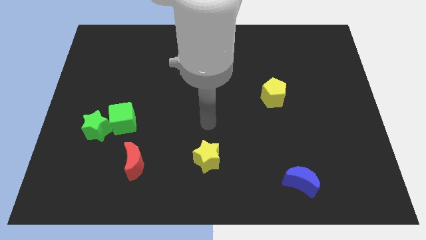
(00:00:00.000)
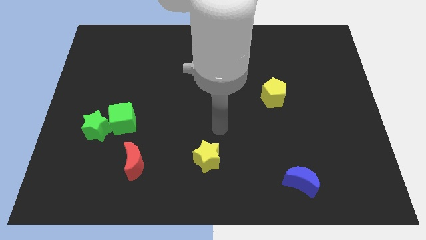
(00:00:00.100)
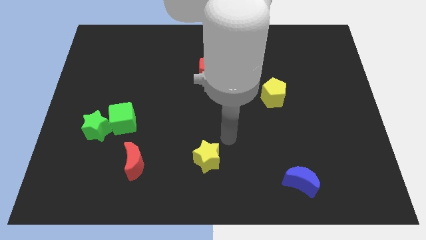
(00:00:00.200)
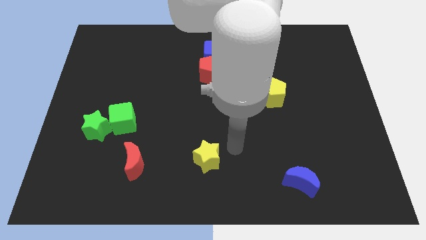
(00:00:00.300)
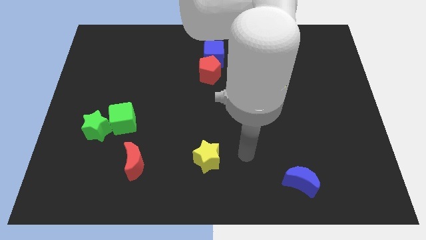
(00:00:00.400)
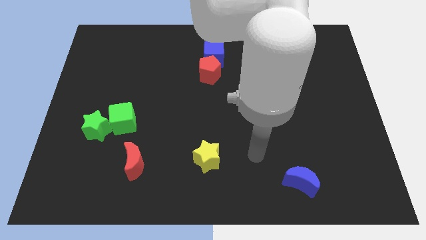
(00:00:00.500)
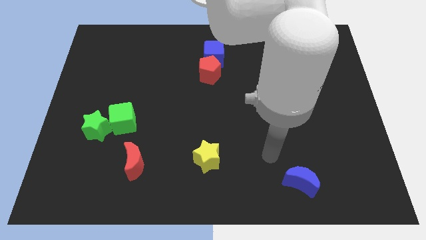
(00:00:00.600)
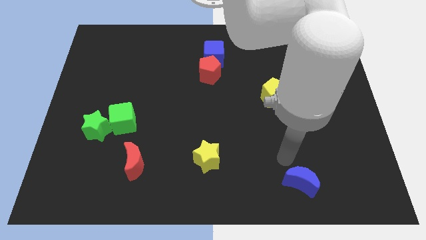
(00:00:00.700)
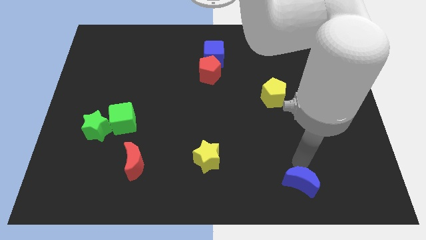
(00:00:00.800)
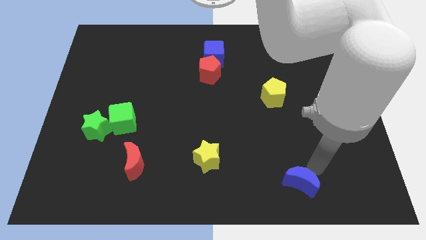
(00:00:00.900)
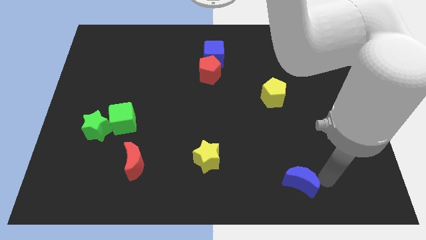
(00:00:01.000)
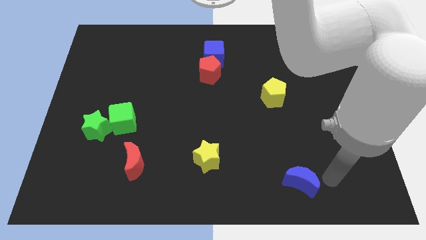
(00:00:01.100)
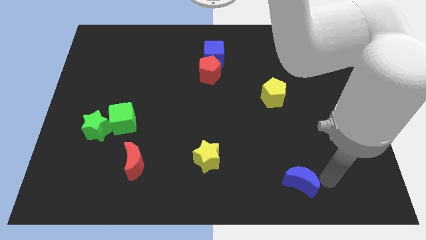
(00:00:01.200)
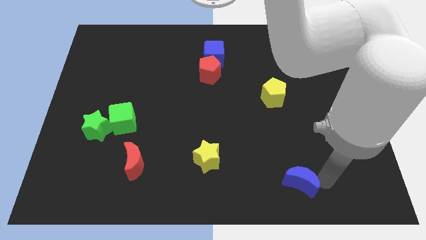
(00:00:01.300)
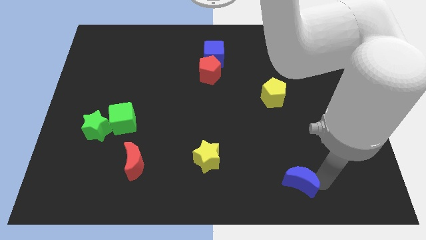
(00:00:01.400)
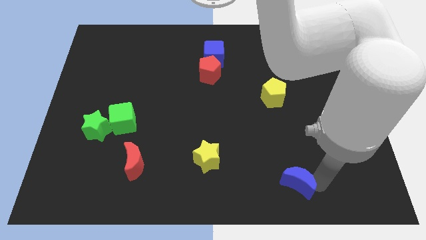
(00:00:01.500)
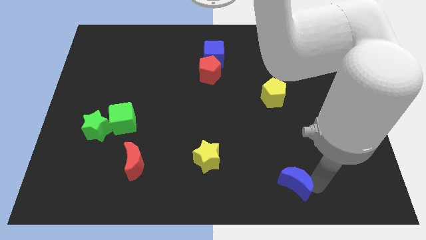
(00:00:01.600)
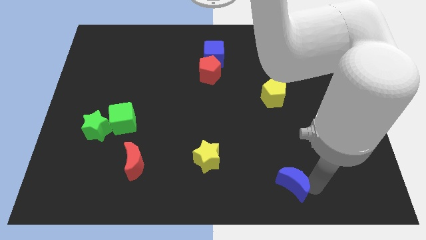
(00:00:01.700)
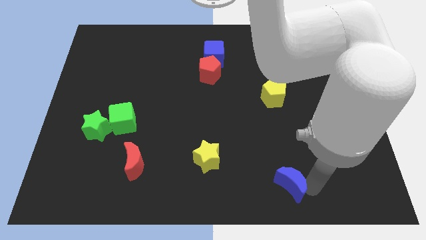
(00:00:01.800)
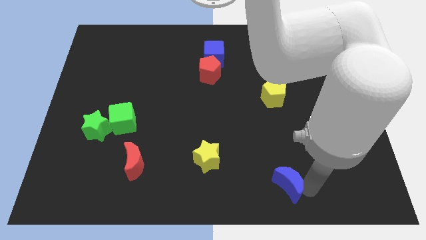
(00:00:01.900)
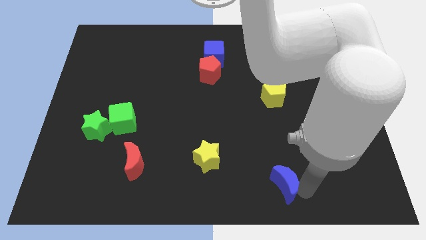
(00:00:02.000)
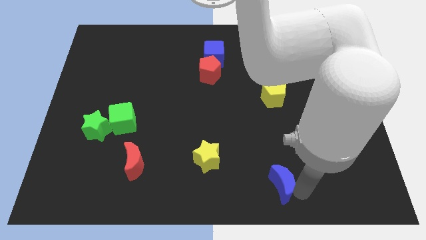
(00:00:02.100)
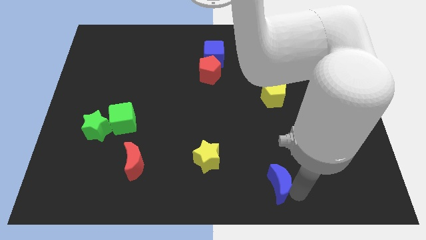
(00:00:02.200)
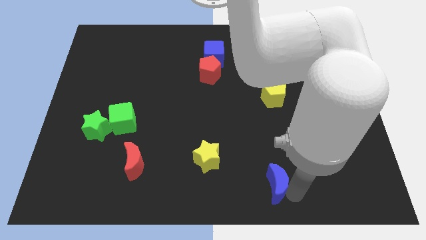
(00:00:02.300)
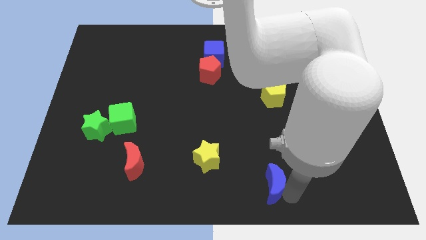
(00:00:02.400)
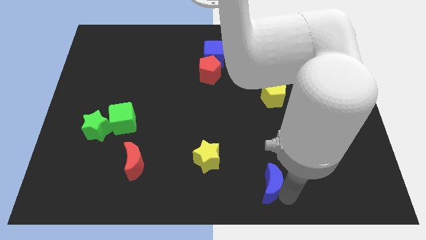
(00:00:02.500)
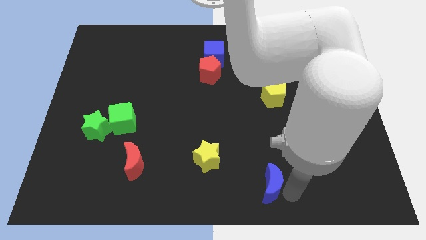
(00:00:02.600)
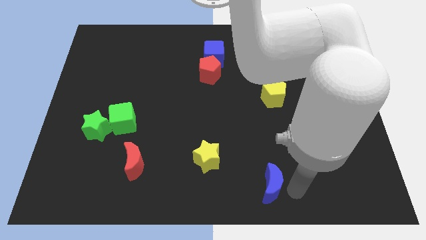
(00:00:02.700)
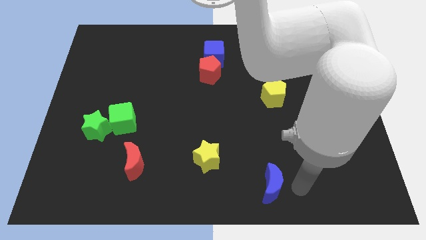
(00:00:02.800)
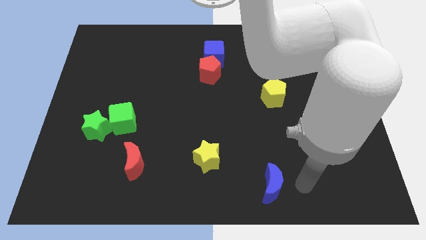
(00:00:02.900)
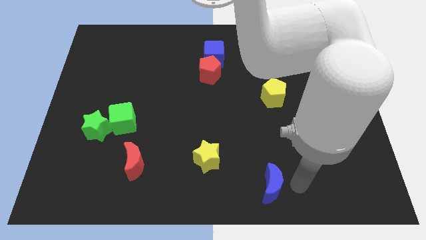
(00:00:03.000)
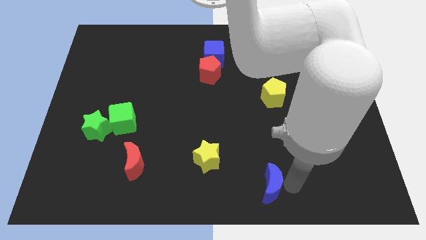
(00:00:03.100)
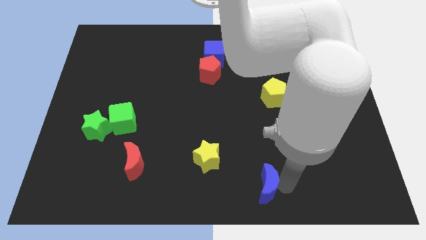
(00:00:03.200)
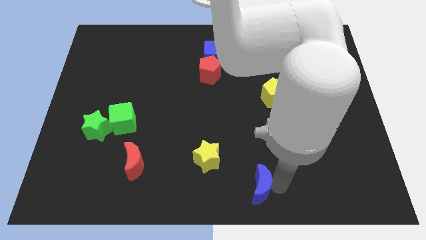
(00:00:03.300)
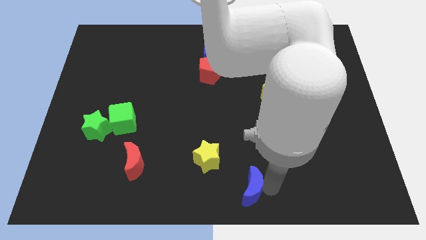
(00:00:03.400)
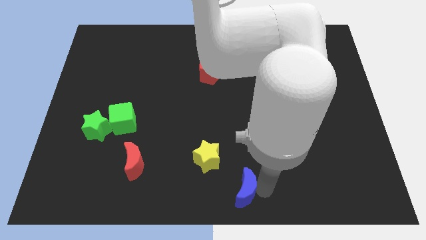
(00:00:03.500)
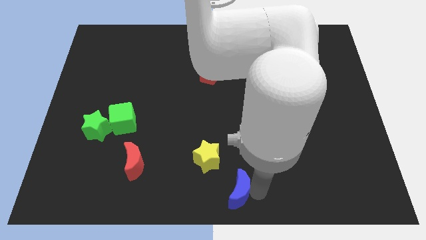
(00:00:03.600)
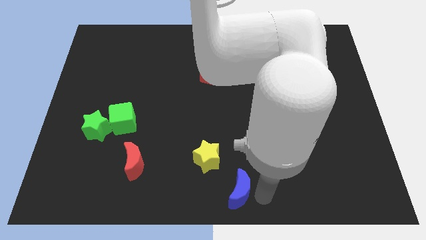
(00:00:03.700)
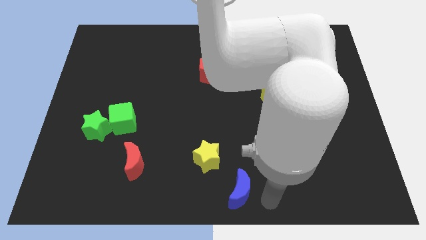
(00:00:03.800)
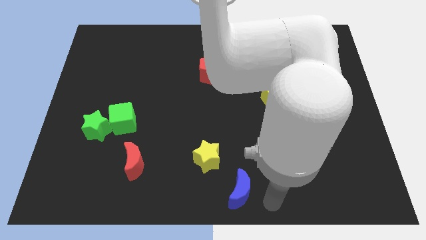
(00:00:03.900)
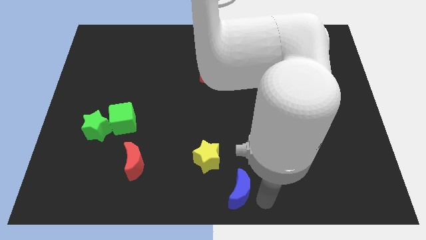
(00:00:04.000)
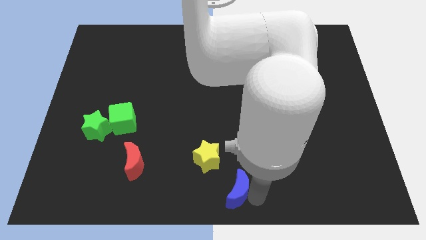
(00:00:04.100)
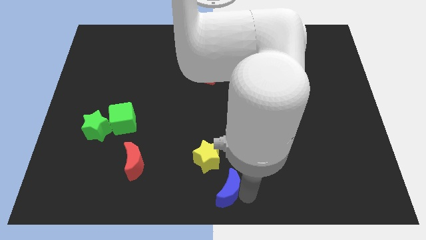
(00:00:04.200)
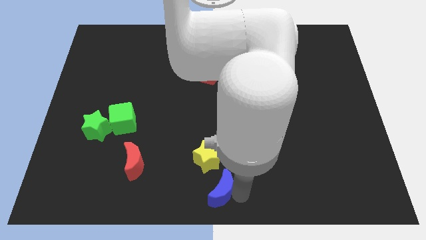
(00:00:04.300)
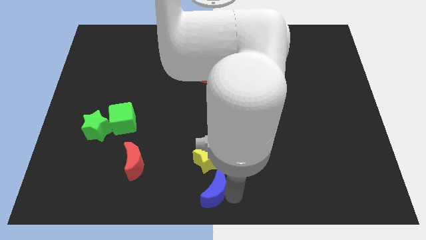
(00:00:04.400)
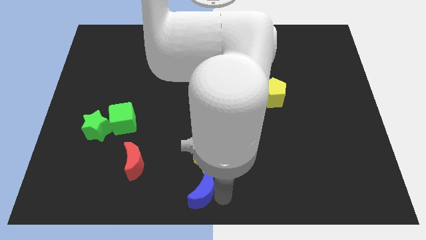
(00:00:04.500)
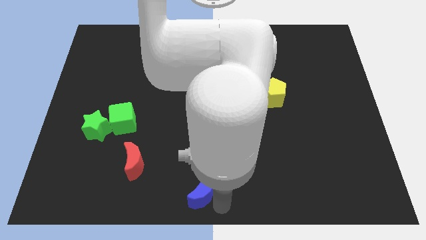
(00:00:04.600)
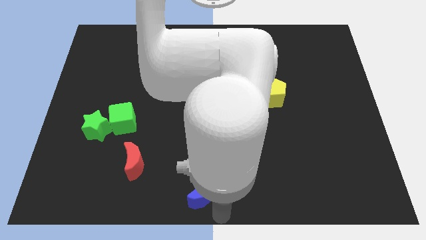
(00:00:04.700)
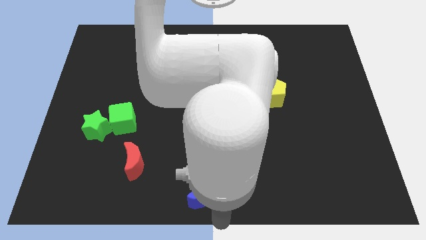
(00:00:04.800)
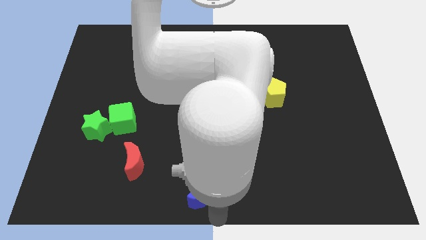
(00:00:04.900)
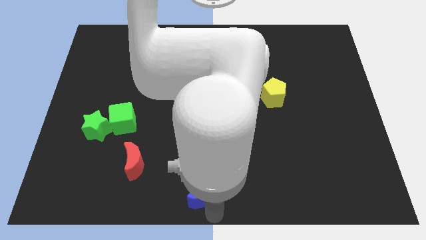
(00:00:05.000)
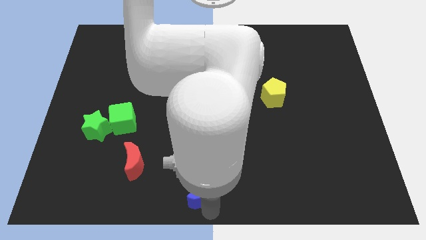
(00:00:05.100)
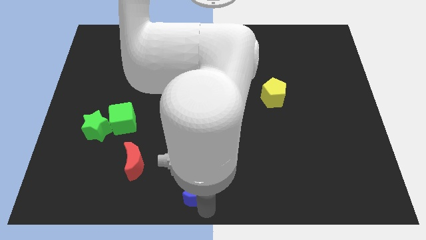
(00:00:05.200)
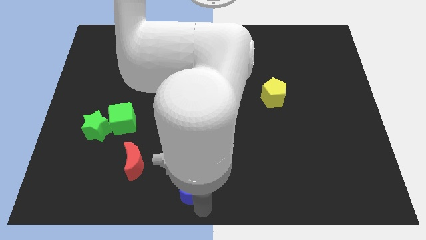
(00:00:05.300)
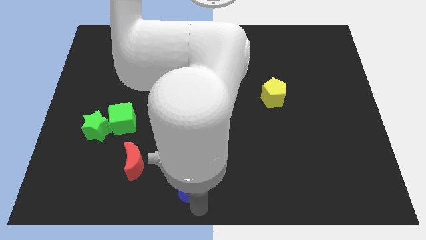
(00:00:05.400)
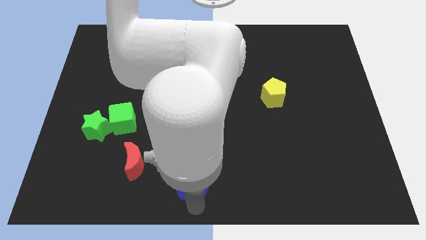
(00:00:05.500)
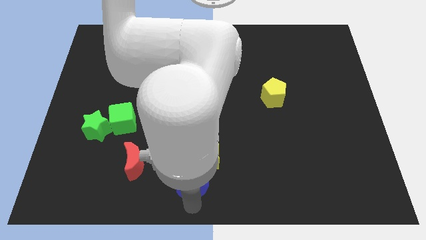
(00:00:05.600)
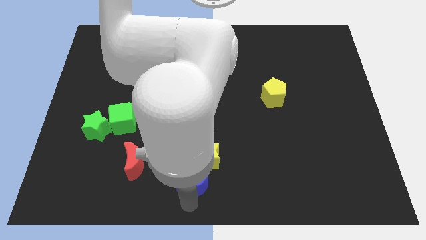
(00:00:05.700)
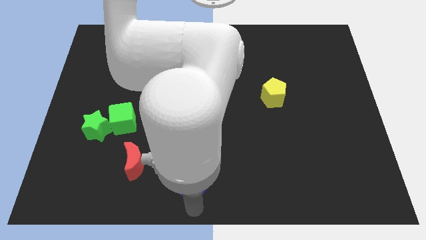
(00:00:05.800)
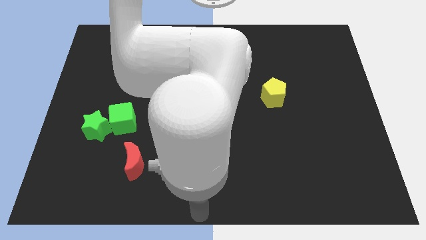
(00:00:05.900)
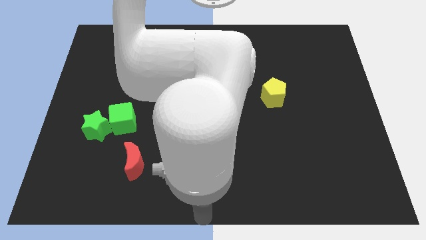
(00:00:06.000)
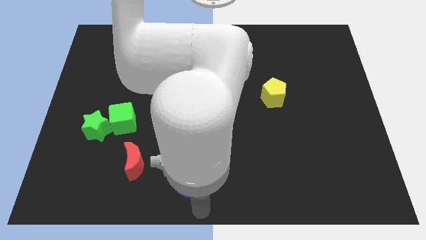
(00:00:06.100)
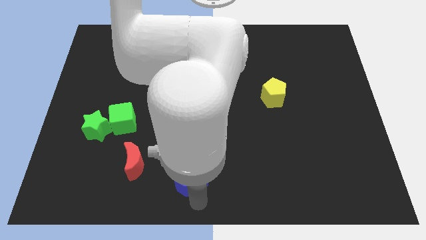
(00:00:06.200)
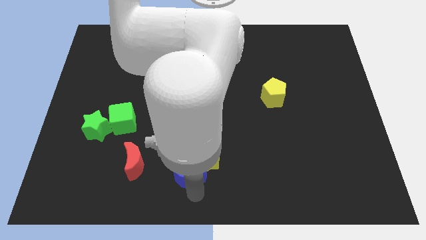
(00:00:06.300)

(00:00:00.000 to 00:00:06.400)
put the blue moon right of the red moon

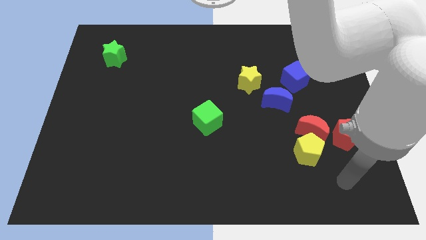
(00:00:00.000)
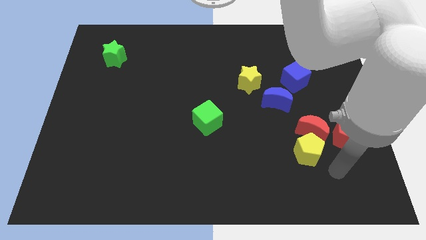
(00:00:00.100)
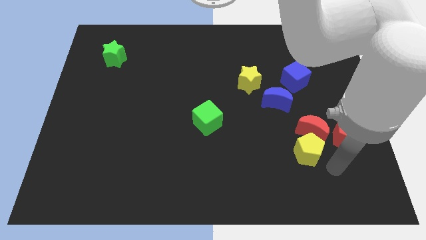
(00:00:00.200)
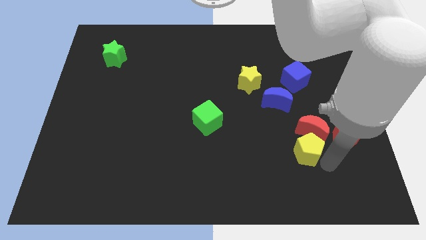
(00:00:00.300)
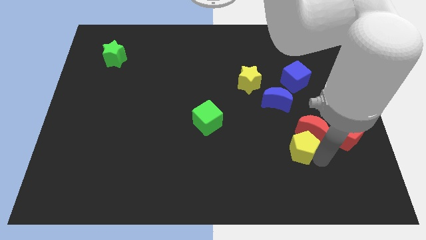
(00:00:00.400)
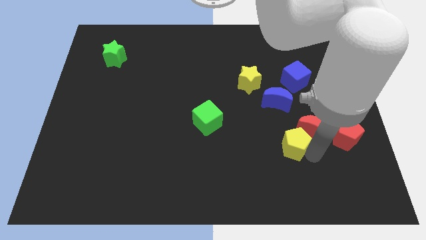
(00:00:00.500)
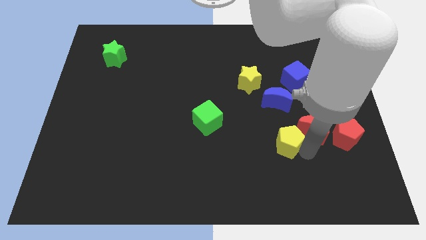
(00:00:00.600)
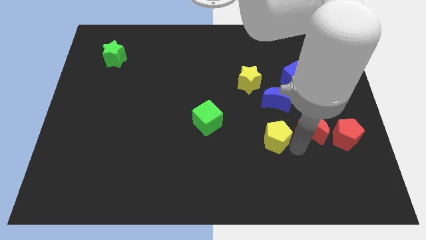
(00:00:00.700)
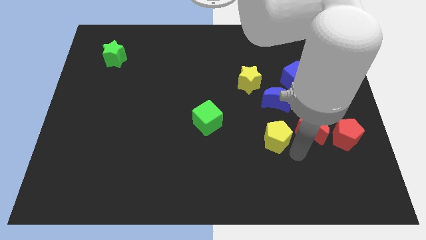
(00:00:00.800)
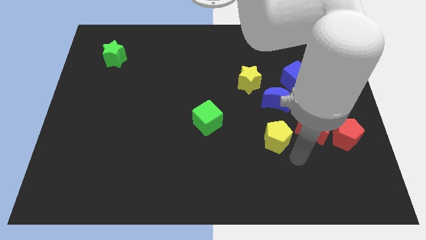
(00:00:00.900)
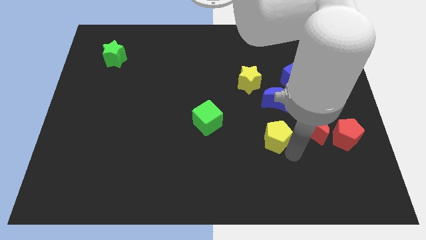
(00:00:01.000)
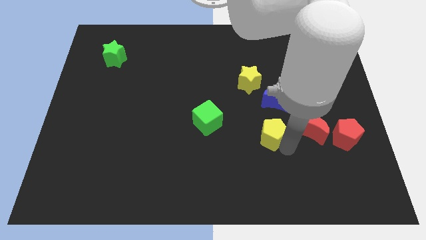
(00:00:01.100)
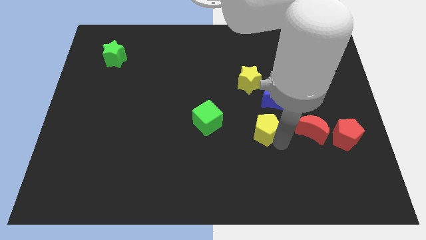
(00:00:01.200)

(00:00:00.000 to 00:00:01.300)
push the yellow pentagon to the bottom left of the blue moon
